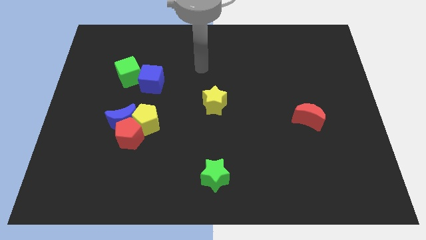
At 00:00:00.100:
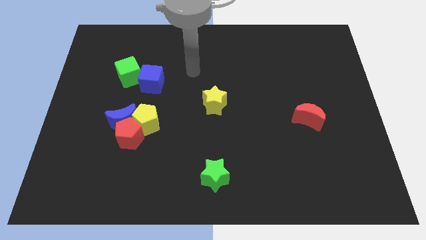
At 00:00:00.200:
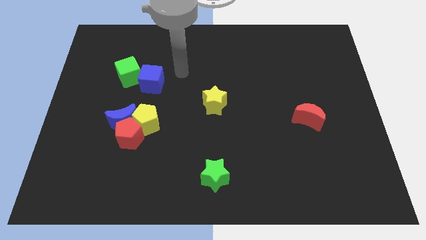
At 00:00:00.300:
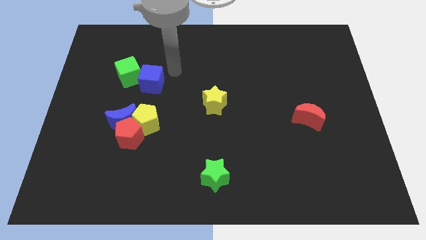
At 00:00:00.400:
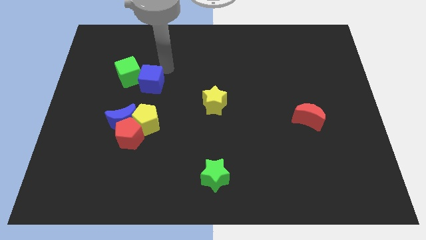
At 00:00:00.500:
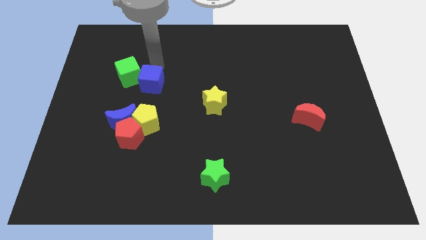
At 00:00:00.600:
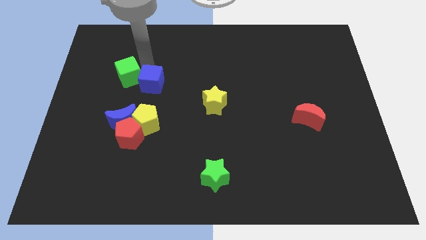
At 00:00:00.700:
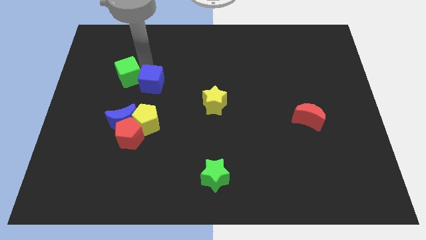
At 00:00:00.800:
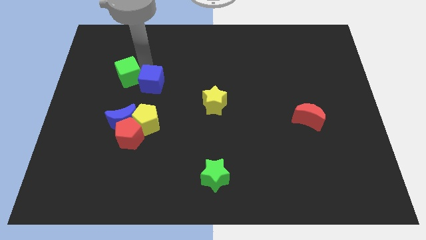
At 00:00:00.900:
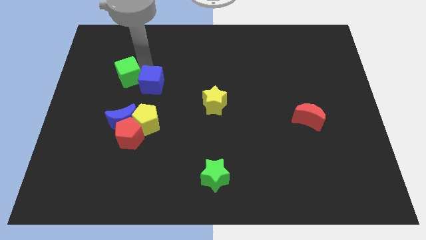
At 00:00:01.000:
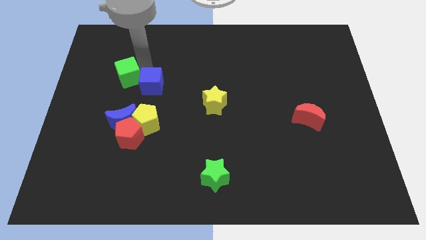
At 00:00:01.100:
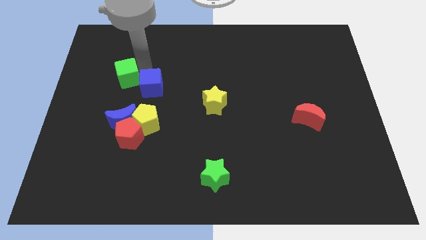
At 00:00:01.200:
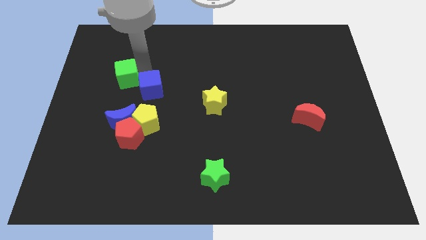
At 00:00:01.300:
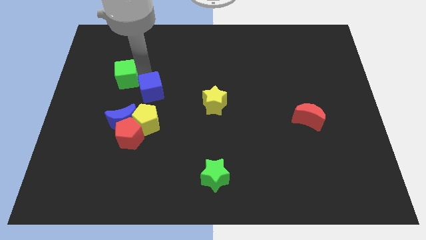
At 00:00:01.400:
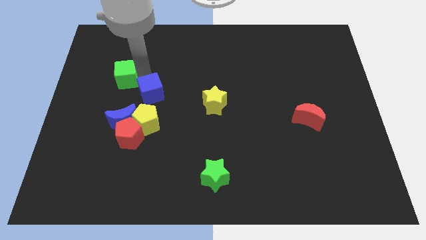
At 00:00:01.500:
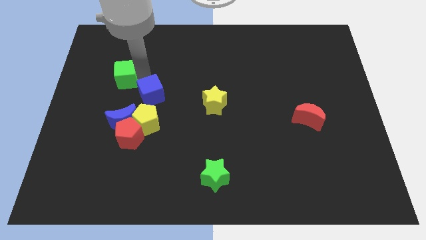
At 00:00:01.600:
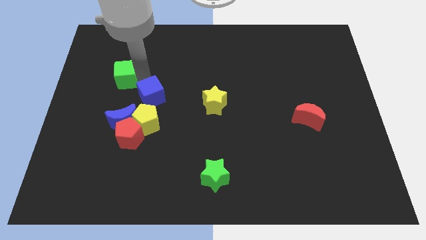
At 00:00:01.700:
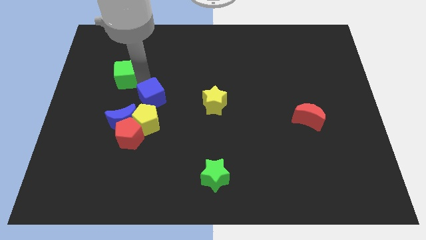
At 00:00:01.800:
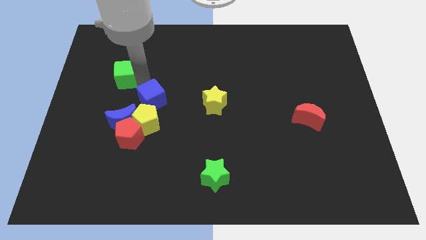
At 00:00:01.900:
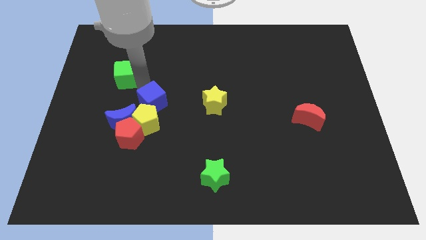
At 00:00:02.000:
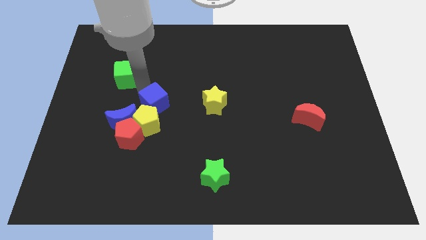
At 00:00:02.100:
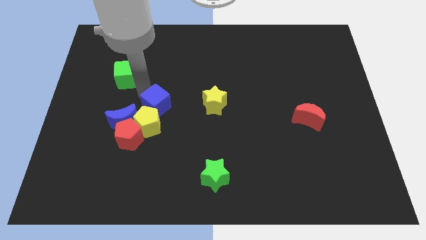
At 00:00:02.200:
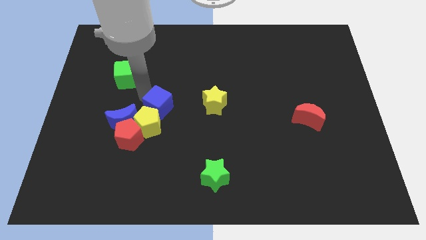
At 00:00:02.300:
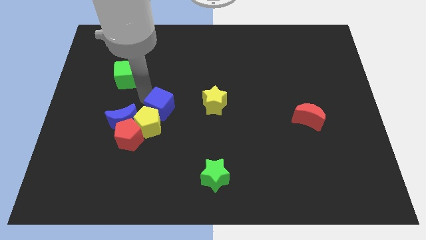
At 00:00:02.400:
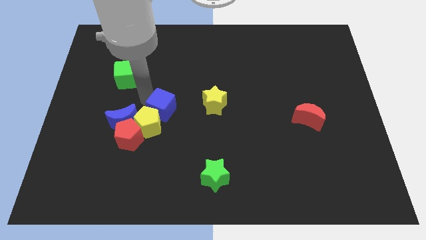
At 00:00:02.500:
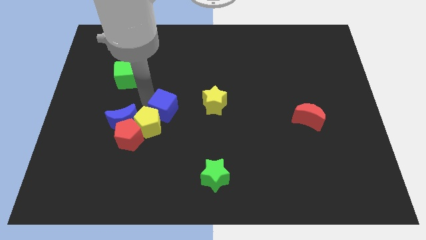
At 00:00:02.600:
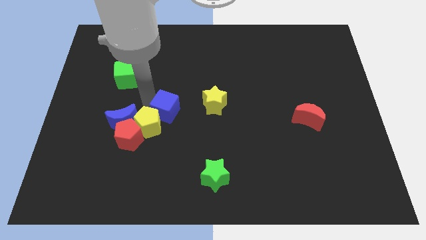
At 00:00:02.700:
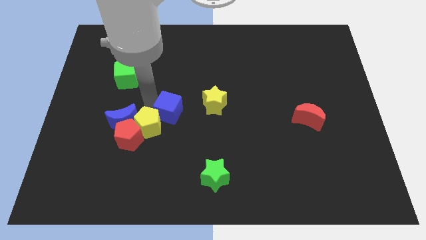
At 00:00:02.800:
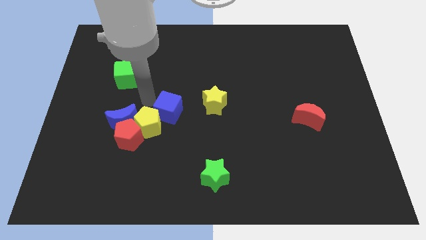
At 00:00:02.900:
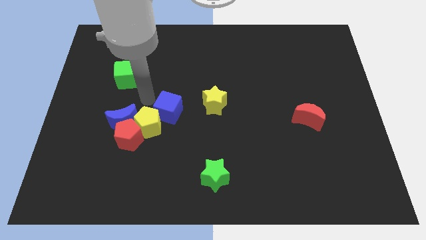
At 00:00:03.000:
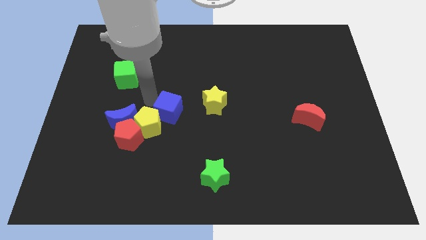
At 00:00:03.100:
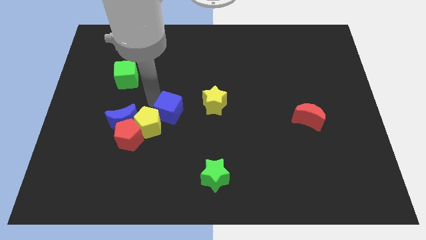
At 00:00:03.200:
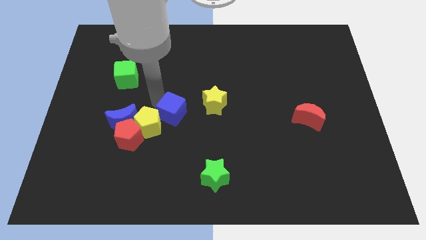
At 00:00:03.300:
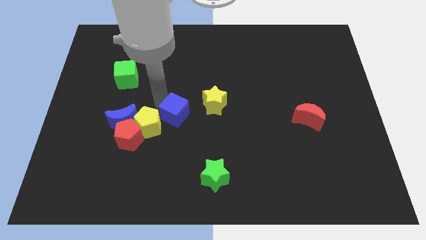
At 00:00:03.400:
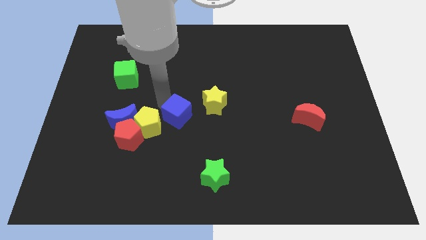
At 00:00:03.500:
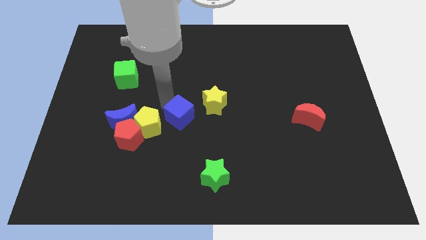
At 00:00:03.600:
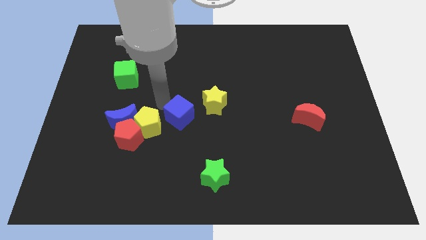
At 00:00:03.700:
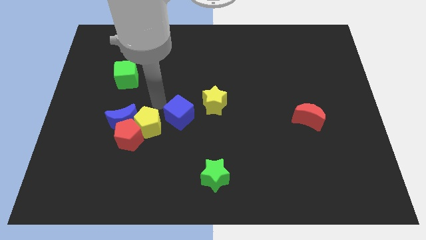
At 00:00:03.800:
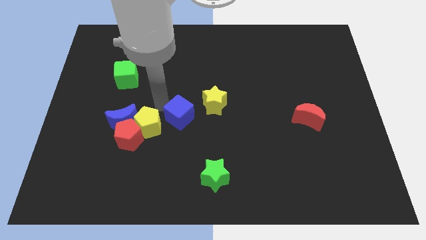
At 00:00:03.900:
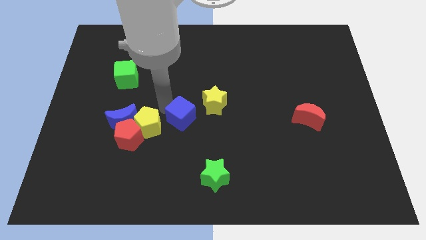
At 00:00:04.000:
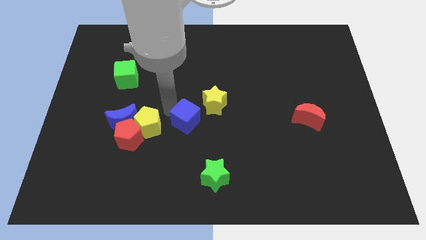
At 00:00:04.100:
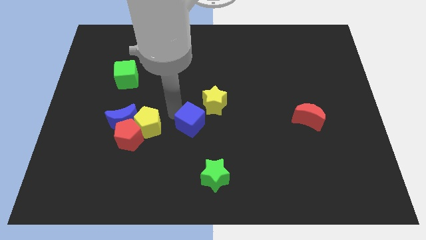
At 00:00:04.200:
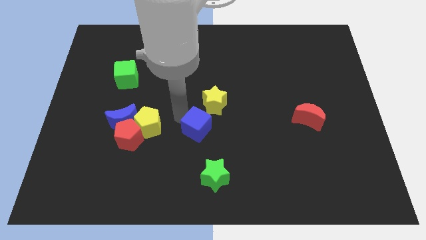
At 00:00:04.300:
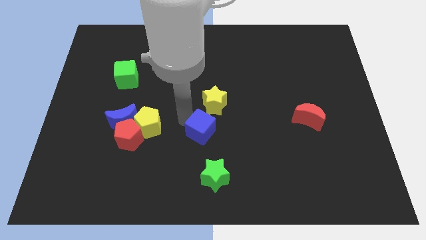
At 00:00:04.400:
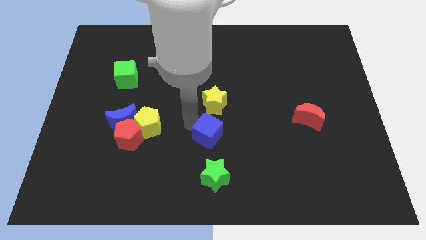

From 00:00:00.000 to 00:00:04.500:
slide the blue cube downwards and right

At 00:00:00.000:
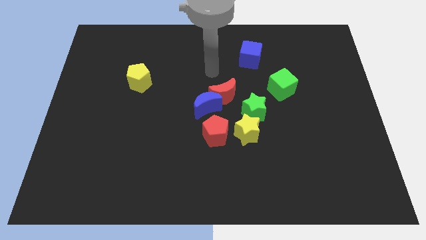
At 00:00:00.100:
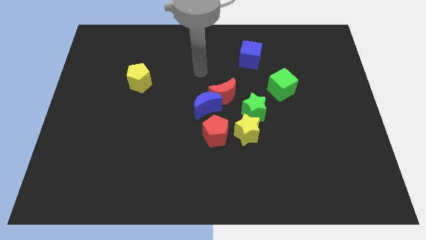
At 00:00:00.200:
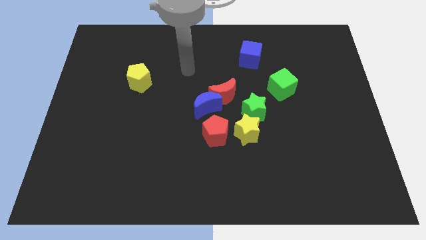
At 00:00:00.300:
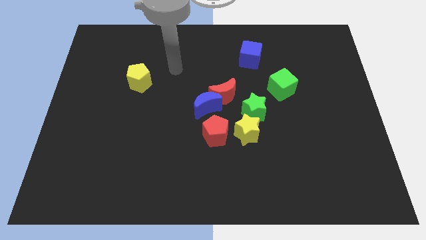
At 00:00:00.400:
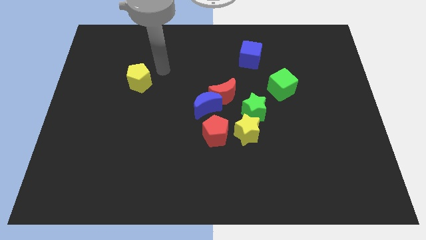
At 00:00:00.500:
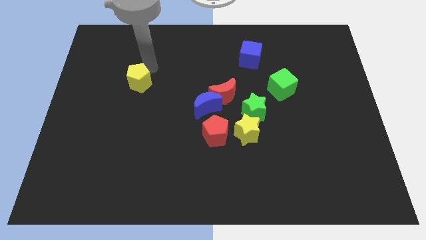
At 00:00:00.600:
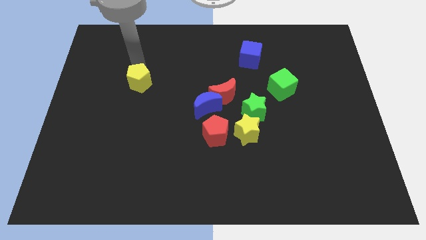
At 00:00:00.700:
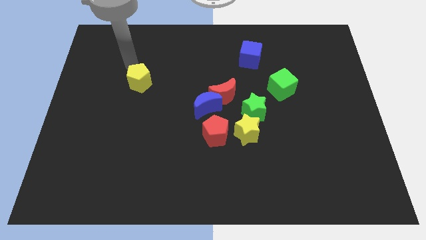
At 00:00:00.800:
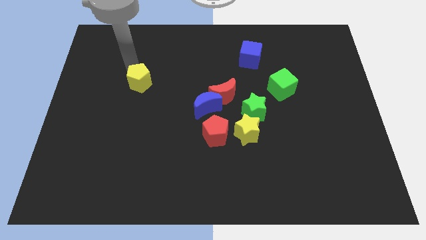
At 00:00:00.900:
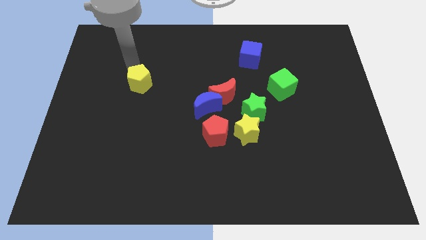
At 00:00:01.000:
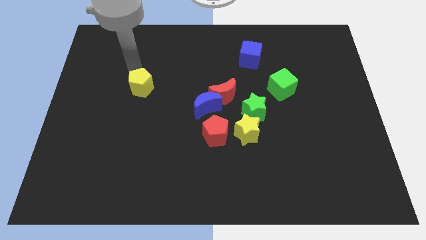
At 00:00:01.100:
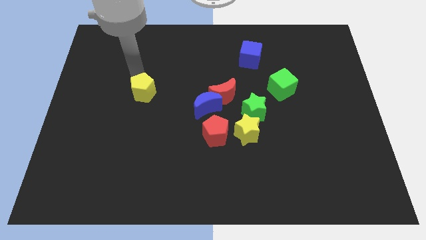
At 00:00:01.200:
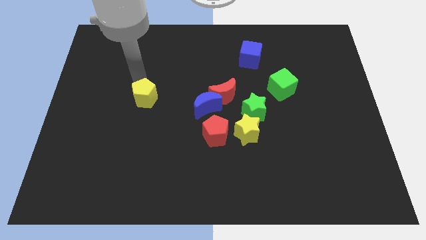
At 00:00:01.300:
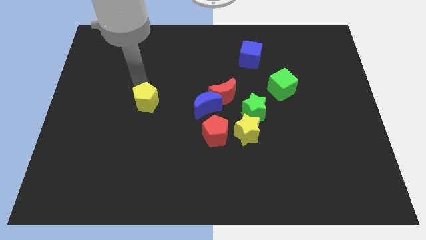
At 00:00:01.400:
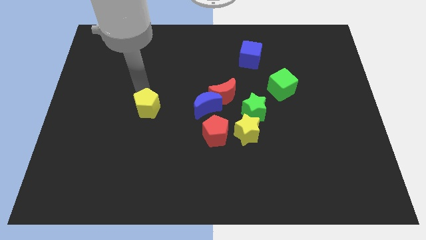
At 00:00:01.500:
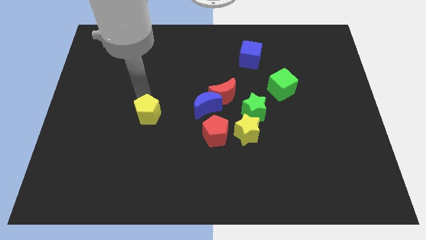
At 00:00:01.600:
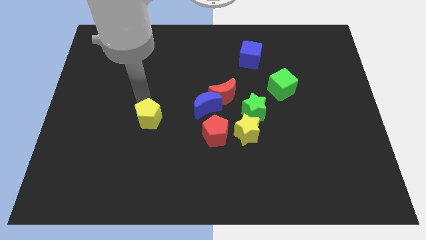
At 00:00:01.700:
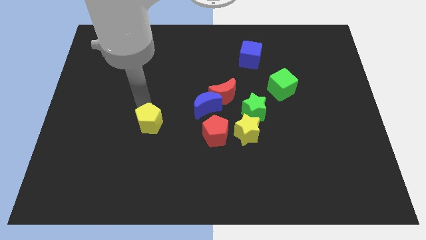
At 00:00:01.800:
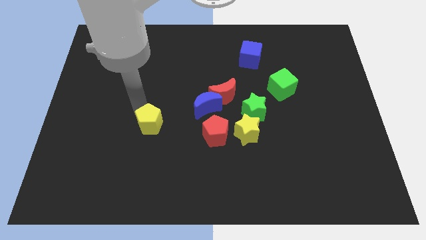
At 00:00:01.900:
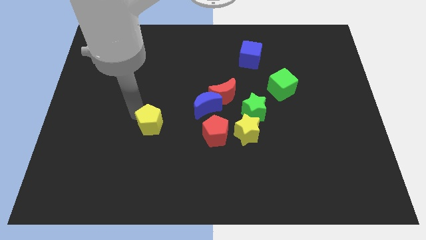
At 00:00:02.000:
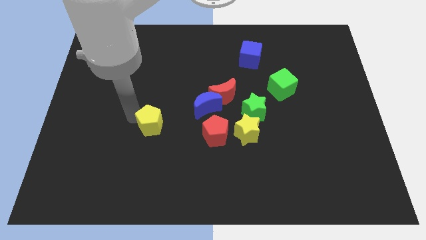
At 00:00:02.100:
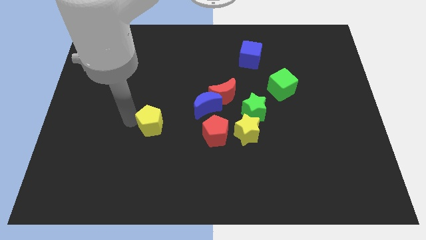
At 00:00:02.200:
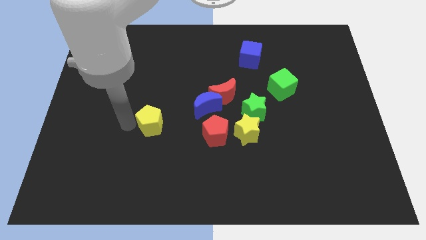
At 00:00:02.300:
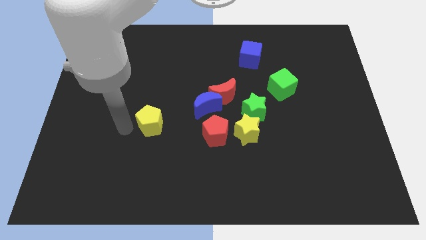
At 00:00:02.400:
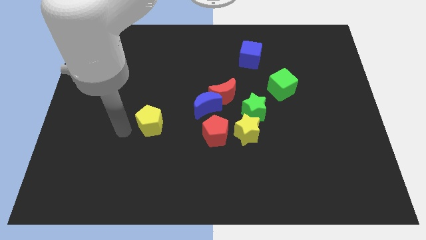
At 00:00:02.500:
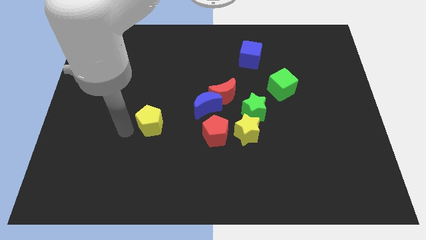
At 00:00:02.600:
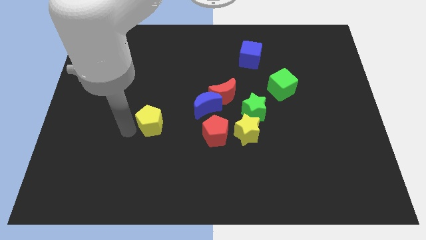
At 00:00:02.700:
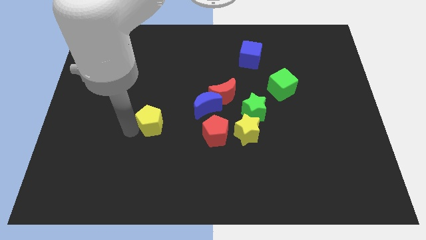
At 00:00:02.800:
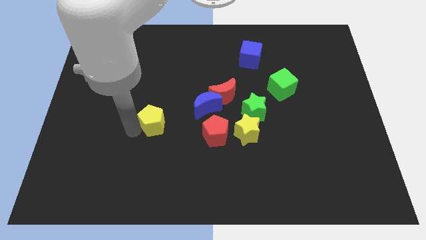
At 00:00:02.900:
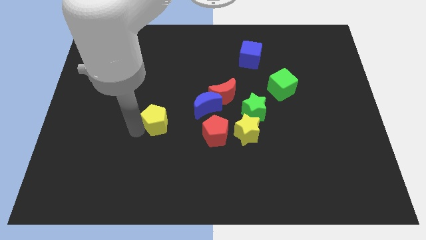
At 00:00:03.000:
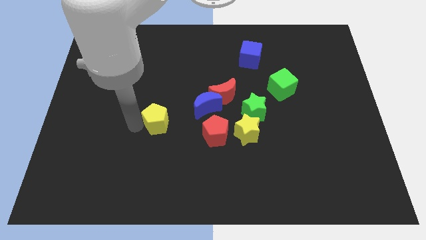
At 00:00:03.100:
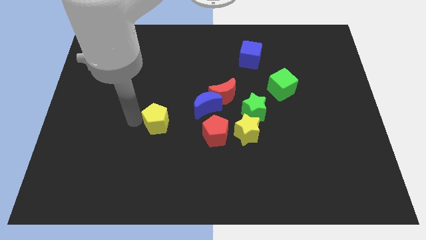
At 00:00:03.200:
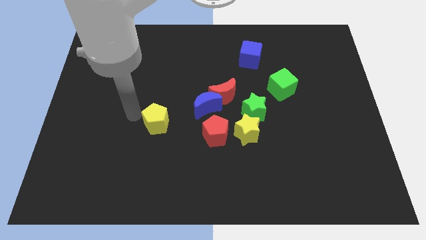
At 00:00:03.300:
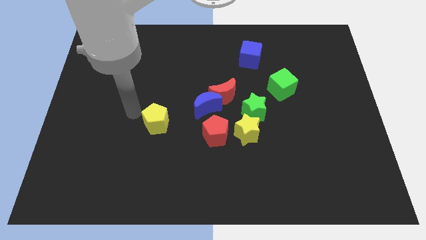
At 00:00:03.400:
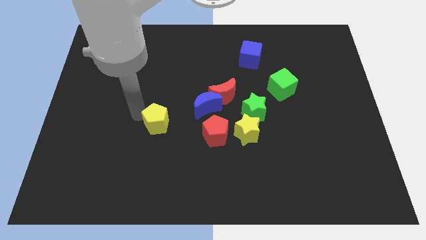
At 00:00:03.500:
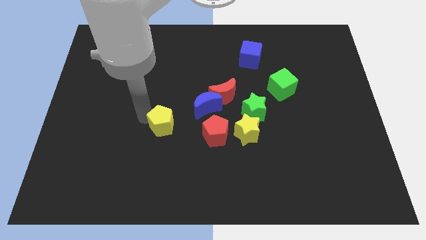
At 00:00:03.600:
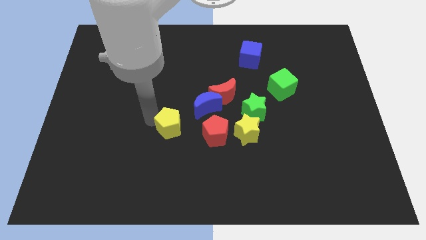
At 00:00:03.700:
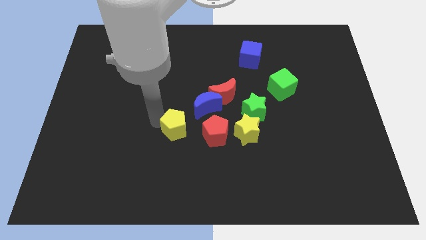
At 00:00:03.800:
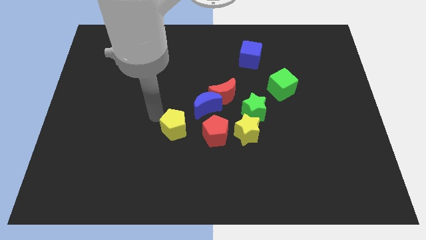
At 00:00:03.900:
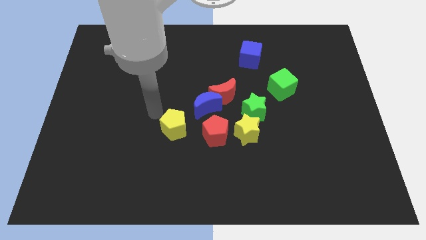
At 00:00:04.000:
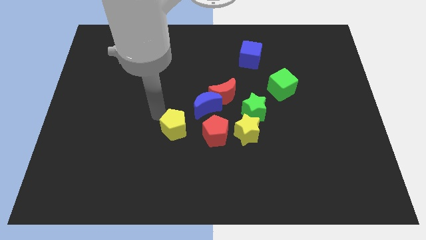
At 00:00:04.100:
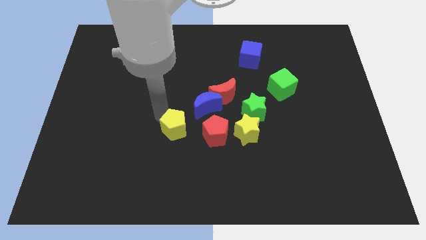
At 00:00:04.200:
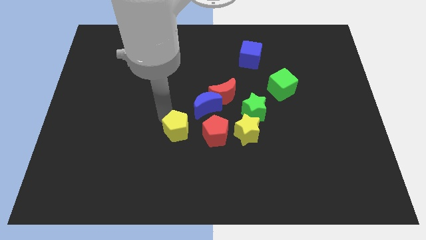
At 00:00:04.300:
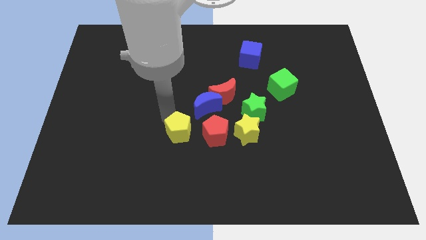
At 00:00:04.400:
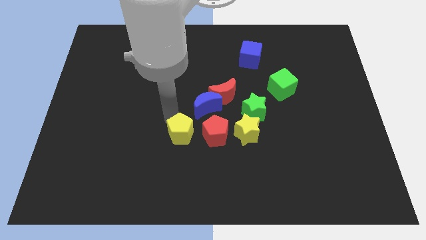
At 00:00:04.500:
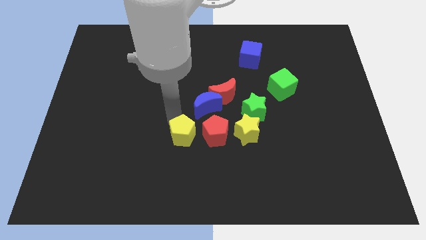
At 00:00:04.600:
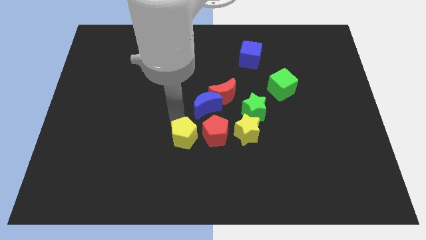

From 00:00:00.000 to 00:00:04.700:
slide the yellow pentagon down and then to the right
